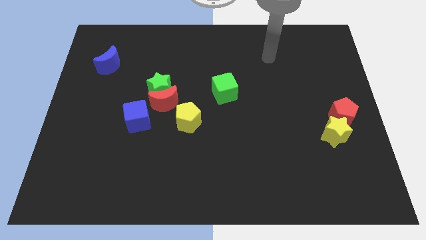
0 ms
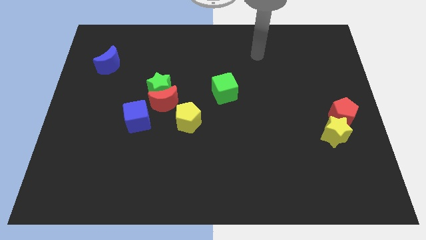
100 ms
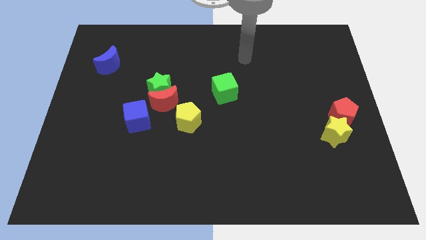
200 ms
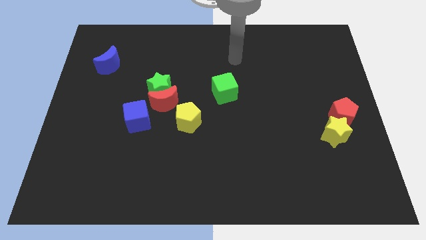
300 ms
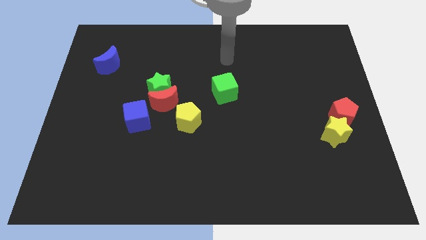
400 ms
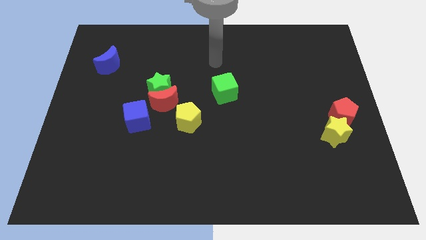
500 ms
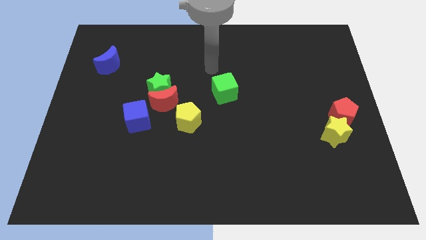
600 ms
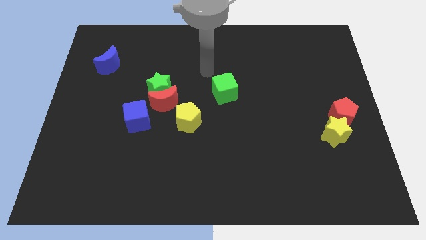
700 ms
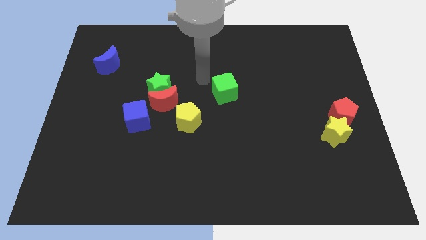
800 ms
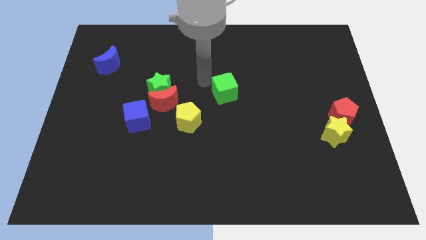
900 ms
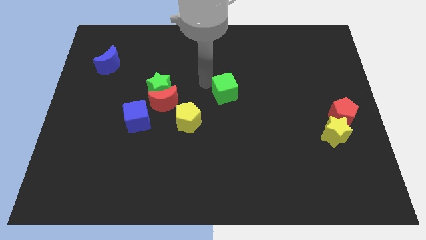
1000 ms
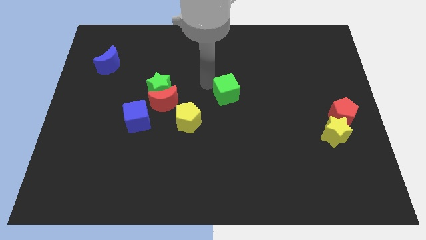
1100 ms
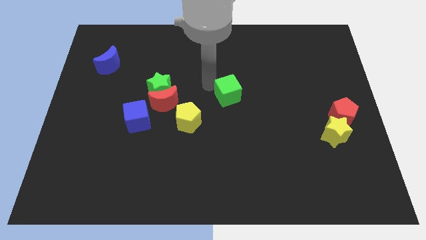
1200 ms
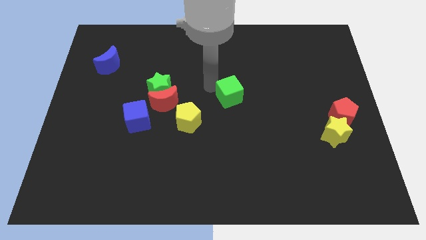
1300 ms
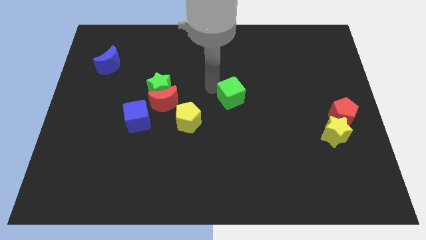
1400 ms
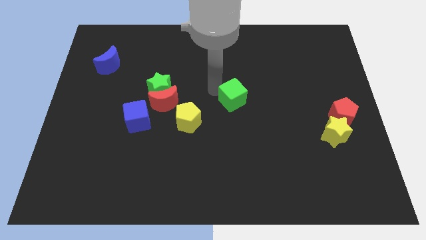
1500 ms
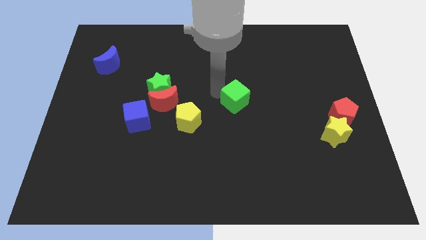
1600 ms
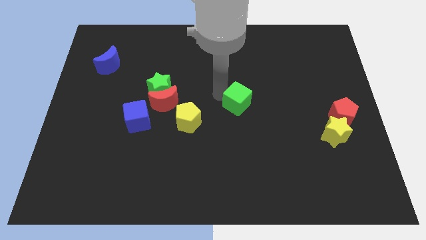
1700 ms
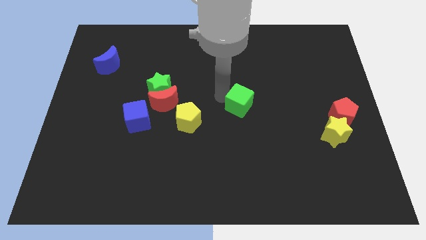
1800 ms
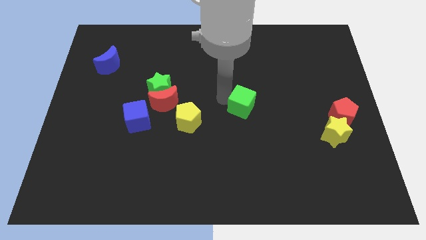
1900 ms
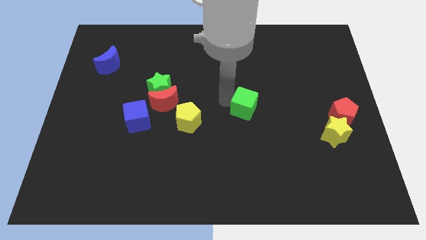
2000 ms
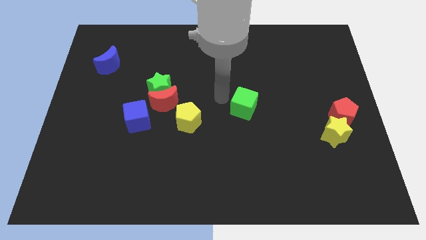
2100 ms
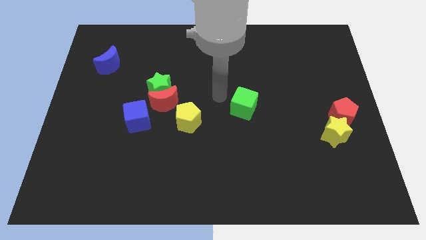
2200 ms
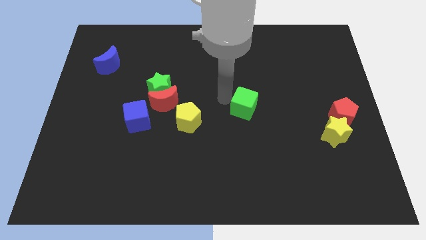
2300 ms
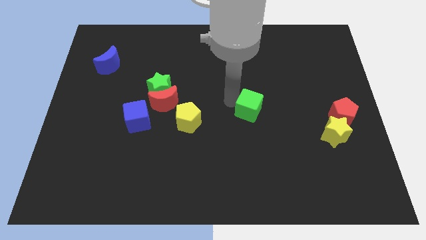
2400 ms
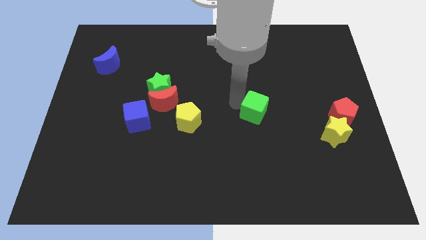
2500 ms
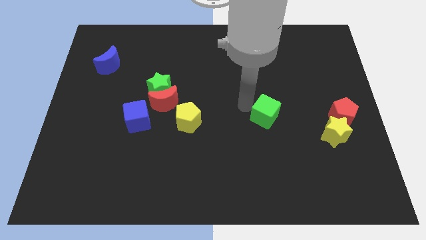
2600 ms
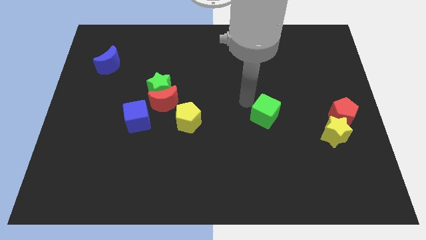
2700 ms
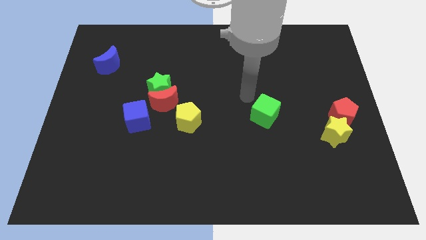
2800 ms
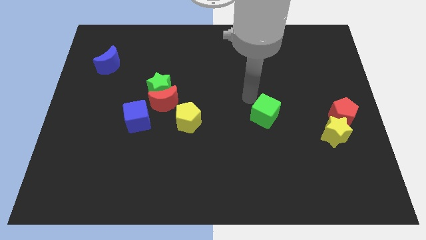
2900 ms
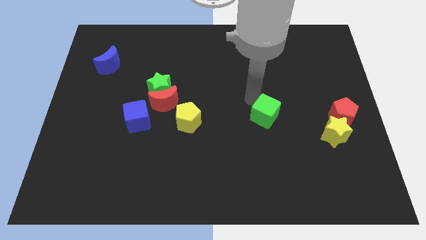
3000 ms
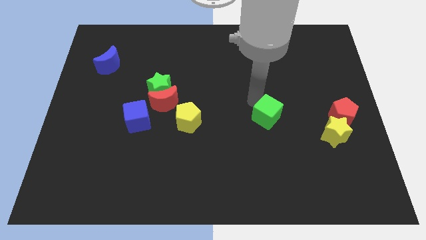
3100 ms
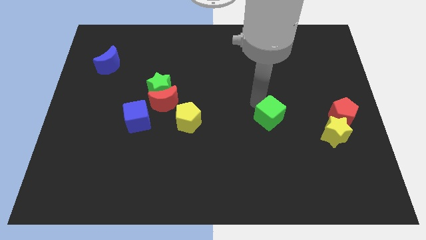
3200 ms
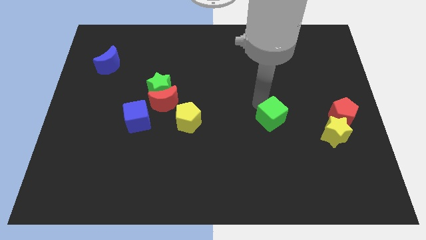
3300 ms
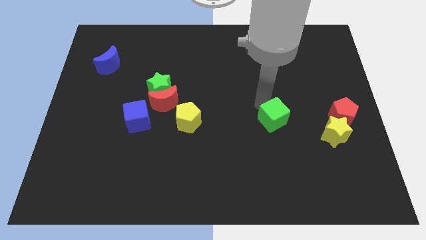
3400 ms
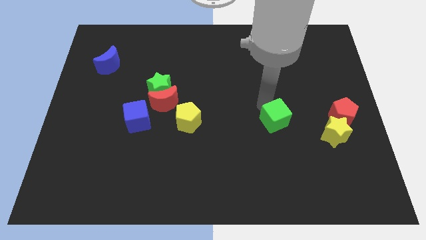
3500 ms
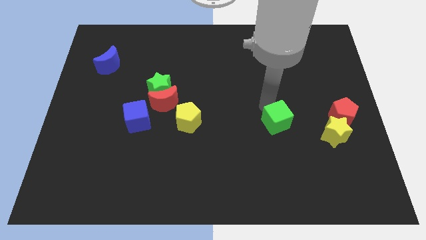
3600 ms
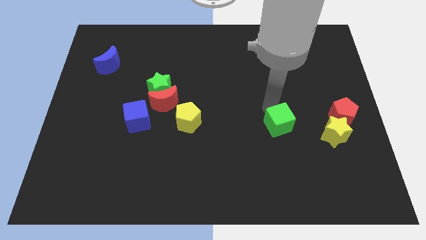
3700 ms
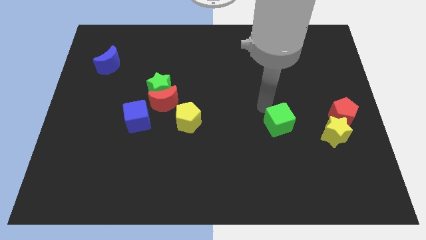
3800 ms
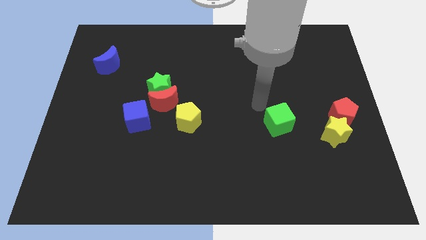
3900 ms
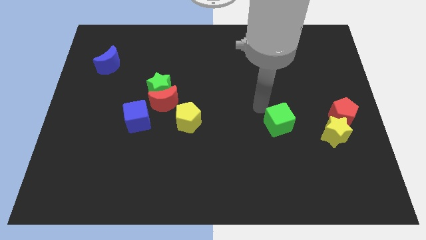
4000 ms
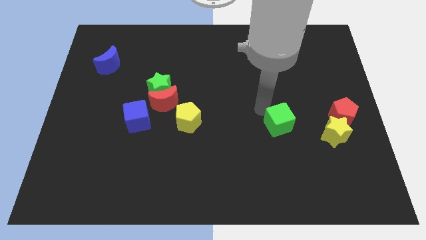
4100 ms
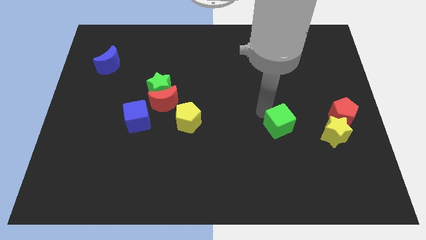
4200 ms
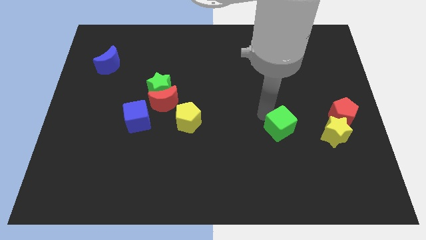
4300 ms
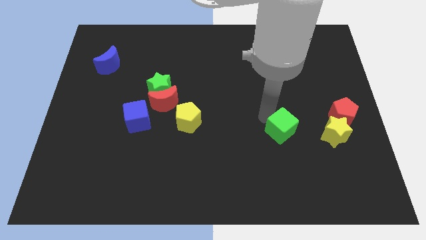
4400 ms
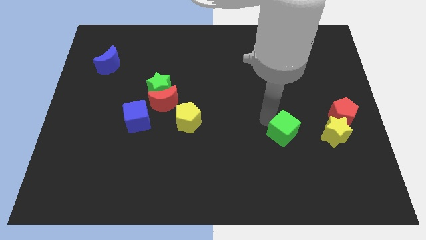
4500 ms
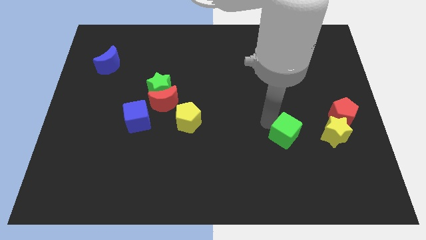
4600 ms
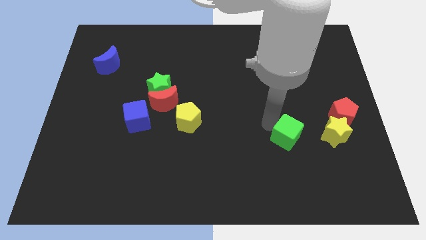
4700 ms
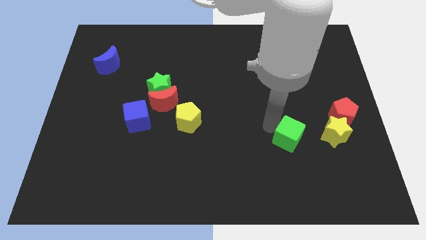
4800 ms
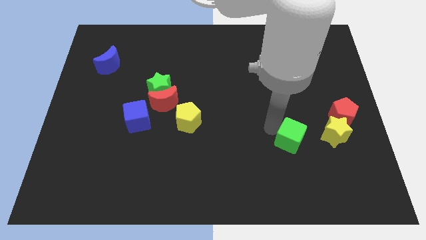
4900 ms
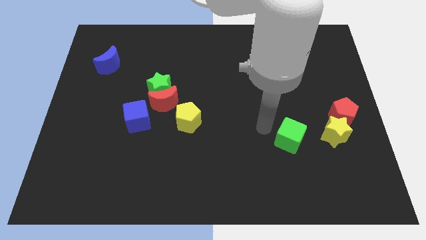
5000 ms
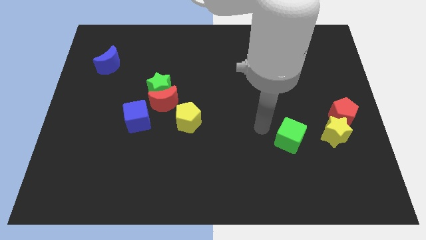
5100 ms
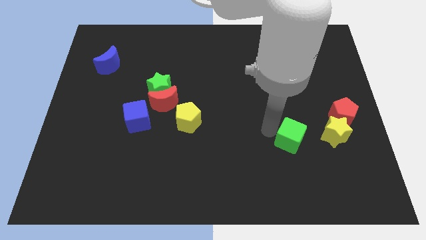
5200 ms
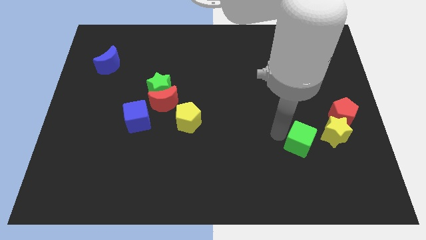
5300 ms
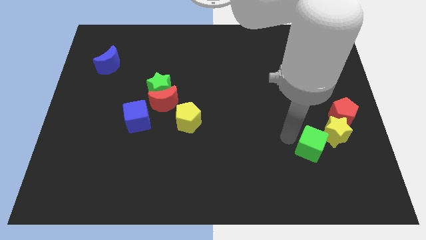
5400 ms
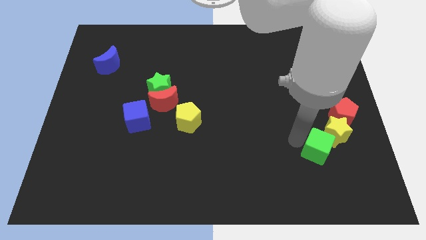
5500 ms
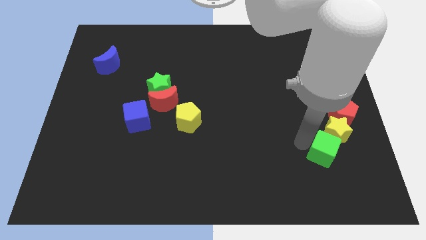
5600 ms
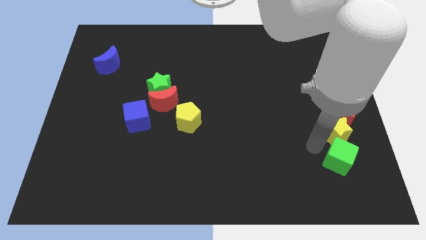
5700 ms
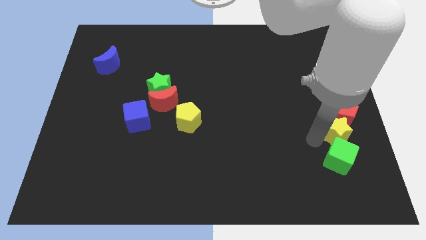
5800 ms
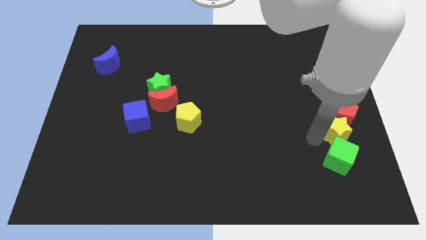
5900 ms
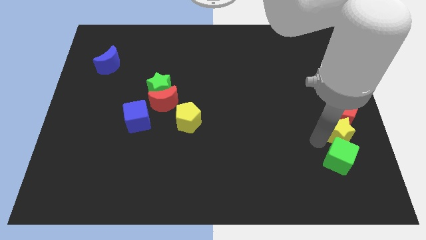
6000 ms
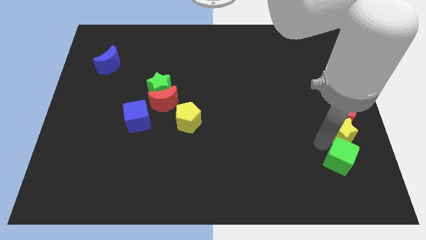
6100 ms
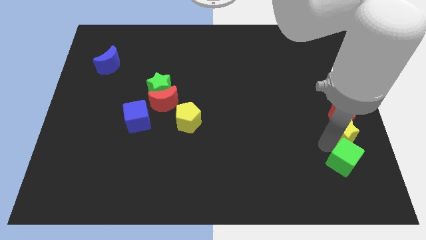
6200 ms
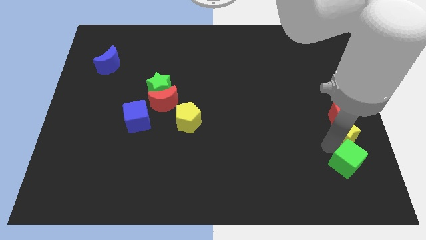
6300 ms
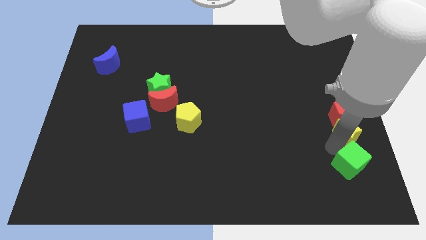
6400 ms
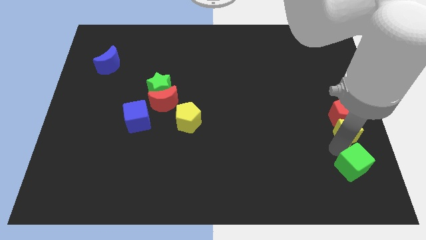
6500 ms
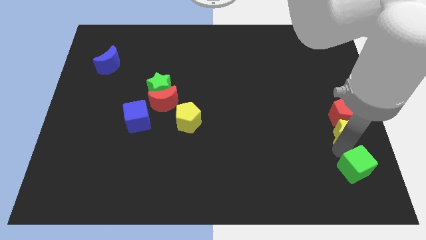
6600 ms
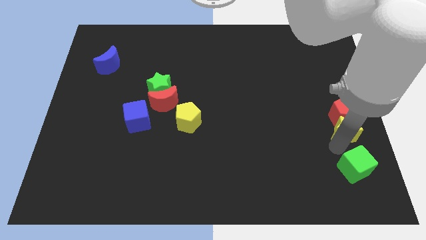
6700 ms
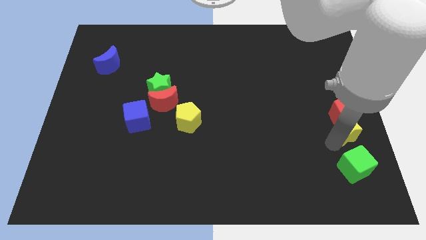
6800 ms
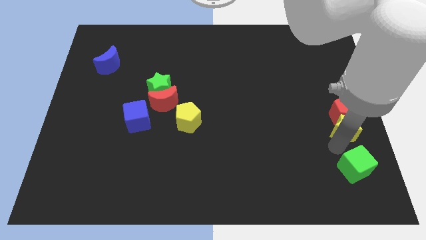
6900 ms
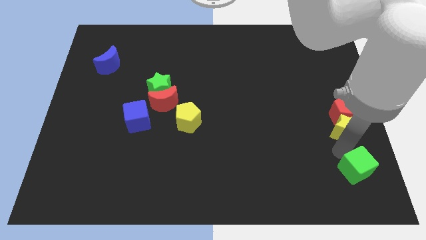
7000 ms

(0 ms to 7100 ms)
slide the green cube to the lower right corner
